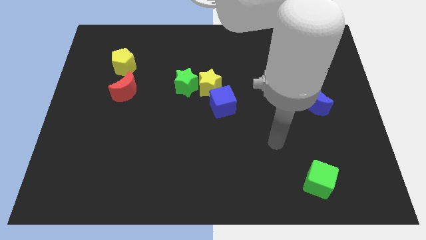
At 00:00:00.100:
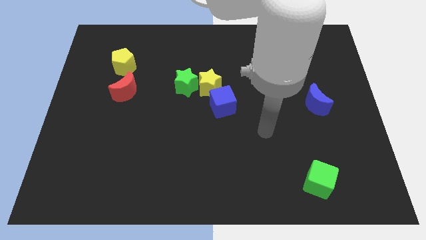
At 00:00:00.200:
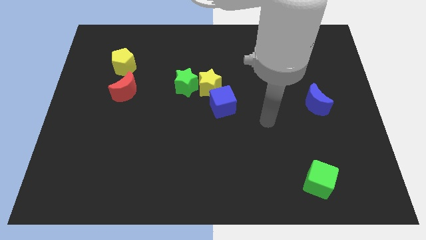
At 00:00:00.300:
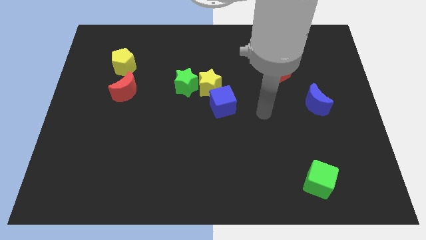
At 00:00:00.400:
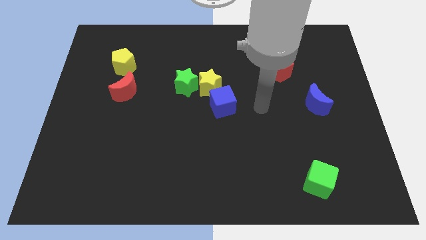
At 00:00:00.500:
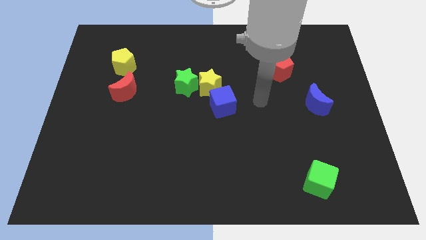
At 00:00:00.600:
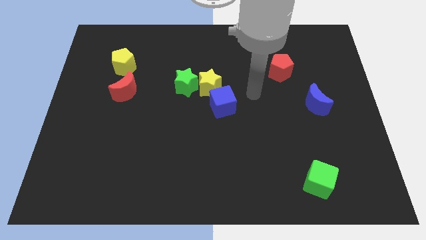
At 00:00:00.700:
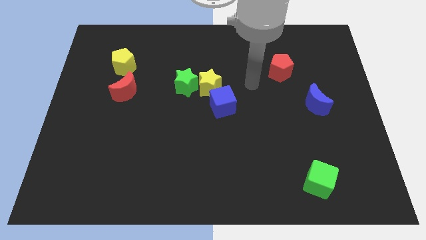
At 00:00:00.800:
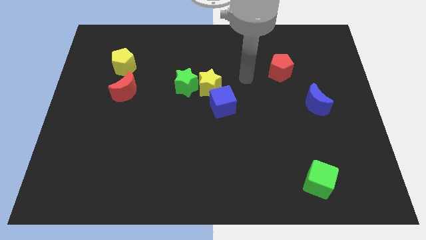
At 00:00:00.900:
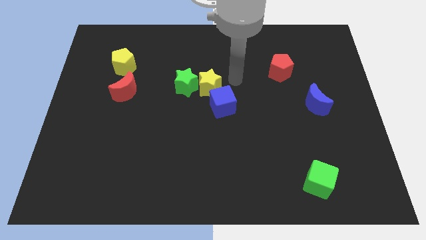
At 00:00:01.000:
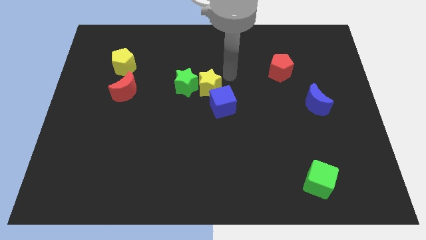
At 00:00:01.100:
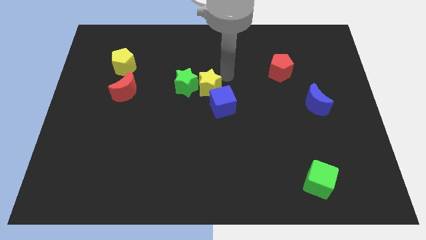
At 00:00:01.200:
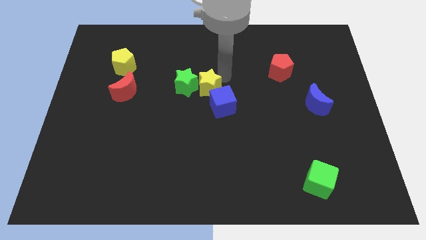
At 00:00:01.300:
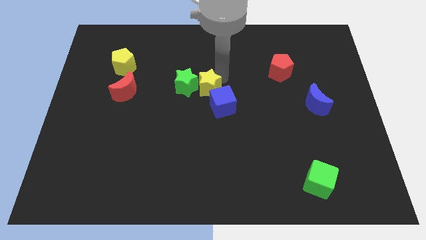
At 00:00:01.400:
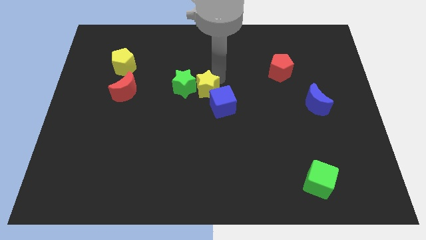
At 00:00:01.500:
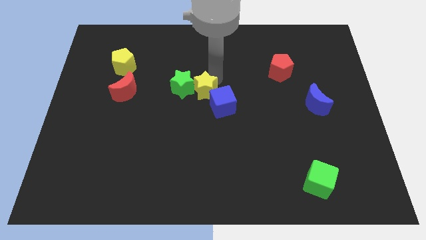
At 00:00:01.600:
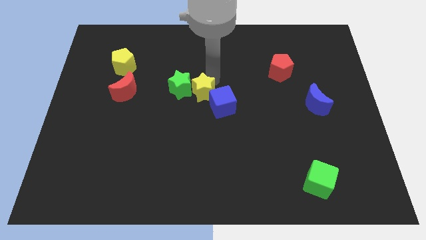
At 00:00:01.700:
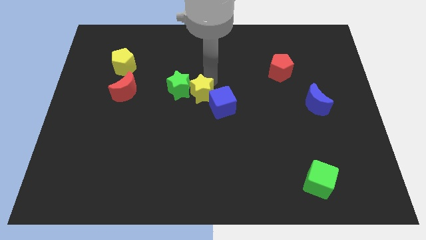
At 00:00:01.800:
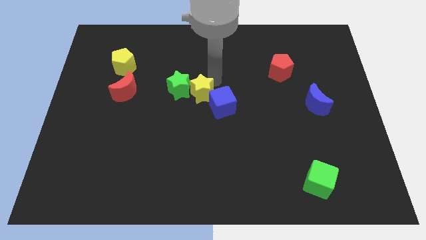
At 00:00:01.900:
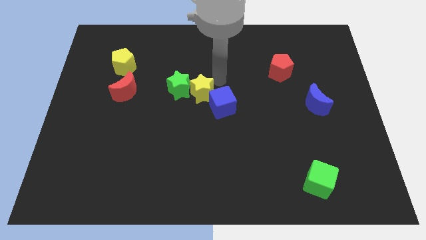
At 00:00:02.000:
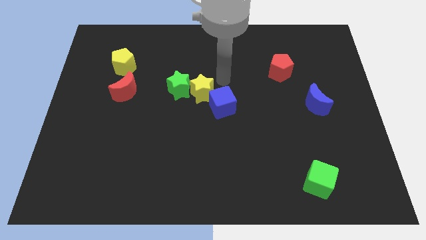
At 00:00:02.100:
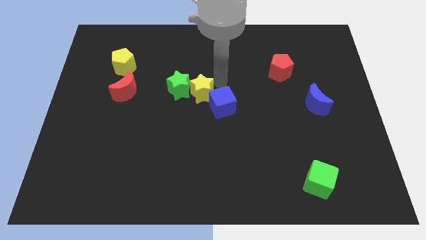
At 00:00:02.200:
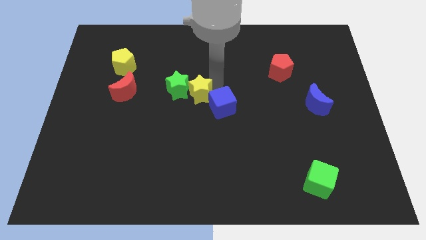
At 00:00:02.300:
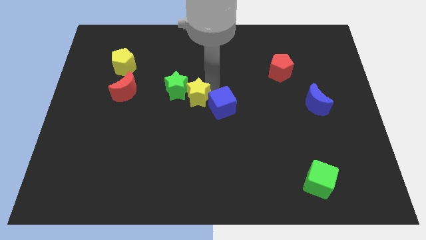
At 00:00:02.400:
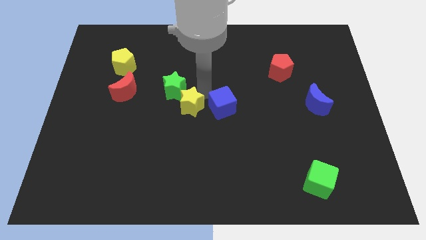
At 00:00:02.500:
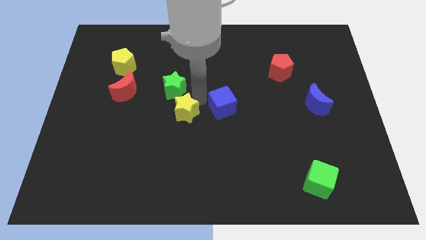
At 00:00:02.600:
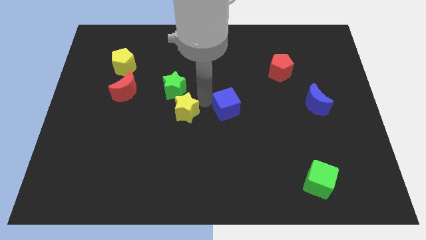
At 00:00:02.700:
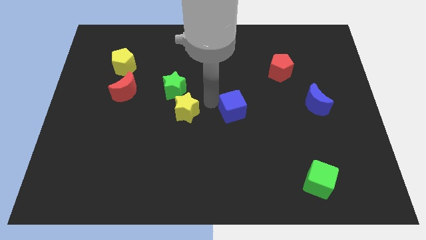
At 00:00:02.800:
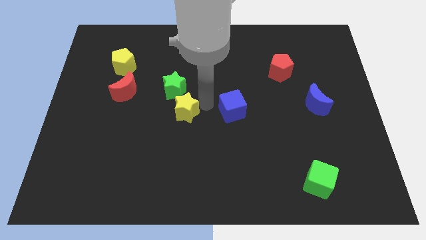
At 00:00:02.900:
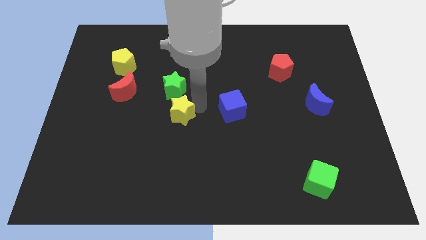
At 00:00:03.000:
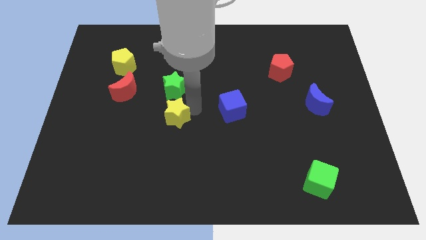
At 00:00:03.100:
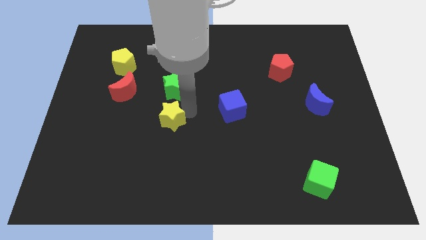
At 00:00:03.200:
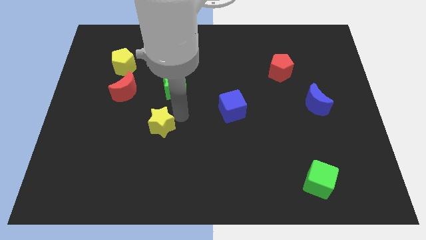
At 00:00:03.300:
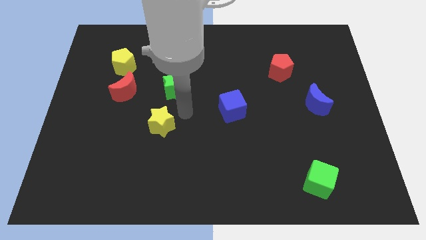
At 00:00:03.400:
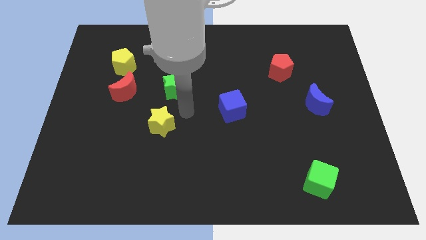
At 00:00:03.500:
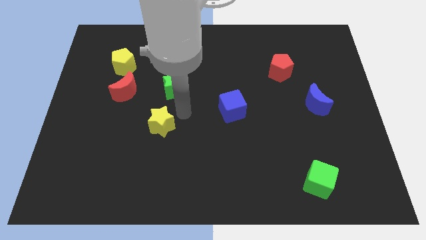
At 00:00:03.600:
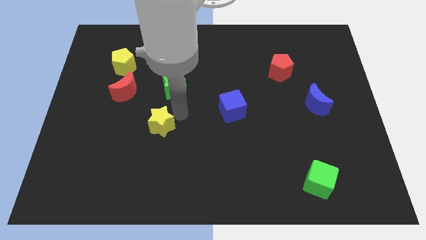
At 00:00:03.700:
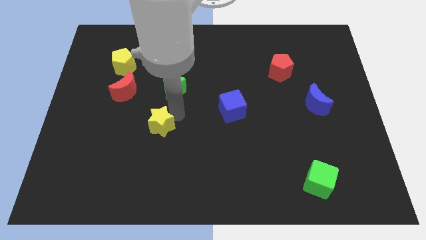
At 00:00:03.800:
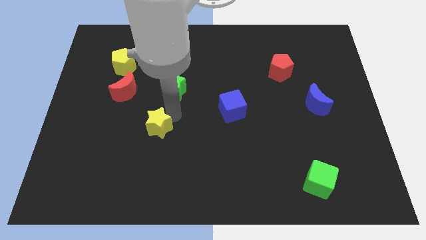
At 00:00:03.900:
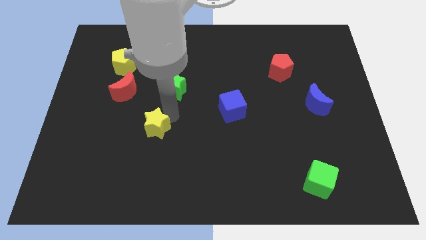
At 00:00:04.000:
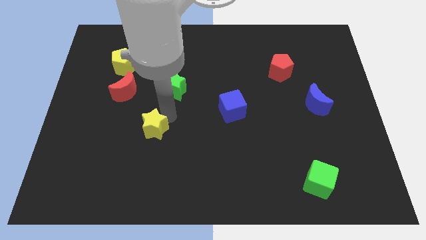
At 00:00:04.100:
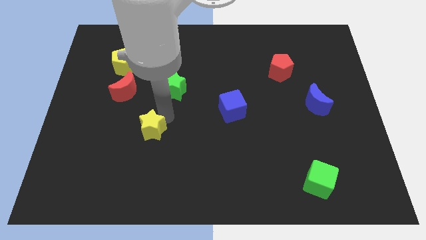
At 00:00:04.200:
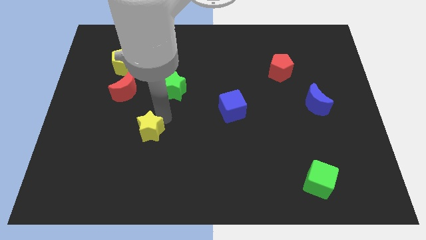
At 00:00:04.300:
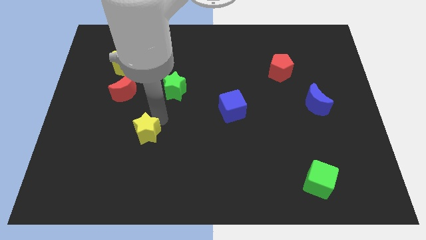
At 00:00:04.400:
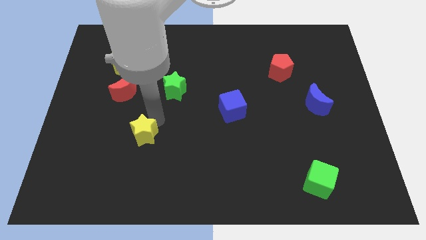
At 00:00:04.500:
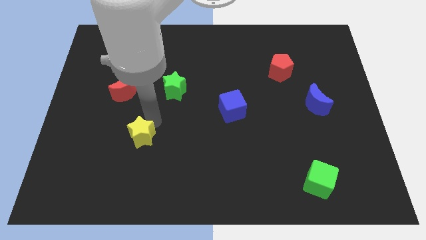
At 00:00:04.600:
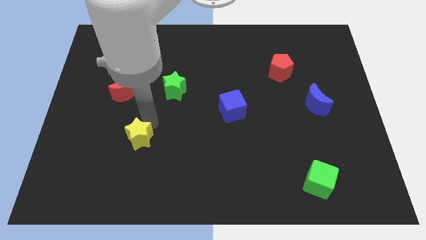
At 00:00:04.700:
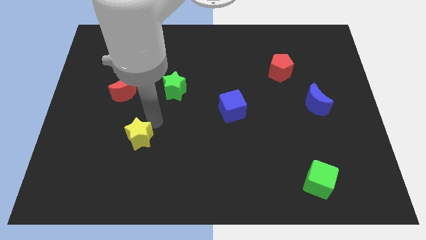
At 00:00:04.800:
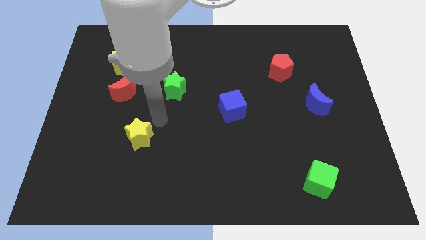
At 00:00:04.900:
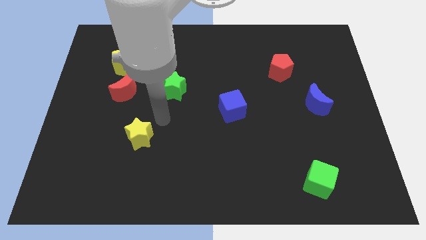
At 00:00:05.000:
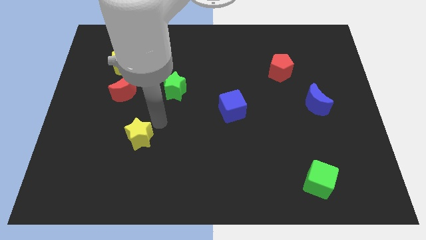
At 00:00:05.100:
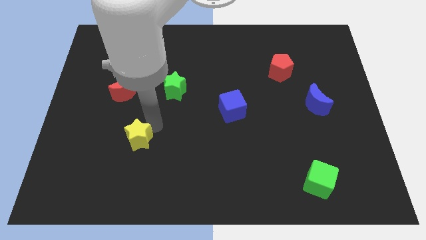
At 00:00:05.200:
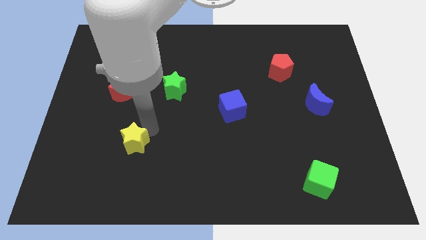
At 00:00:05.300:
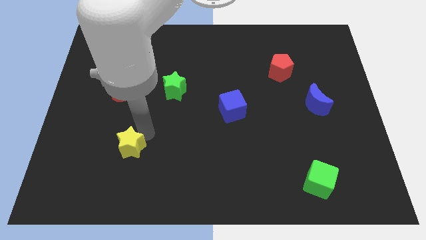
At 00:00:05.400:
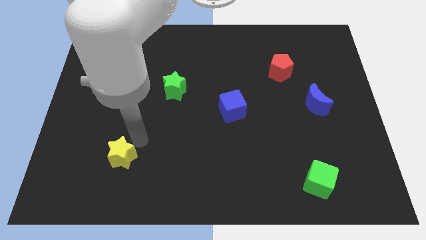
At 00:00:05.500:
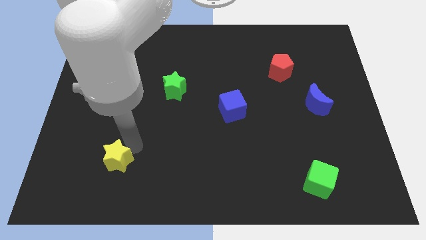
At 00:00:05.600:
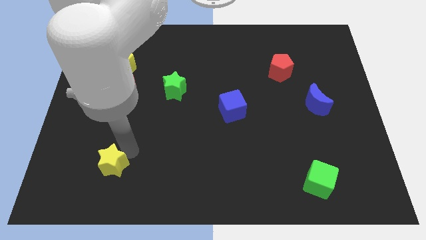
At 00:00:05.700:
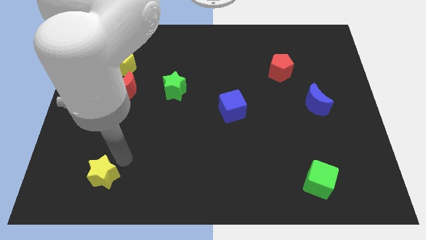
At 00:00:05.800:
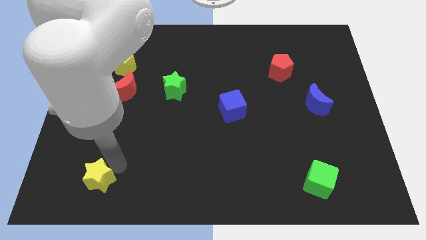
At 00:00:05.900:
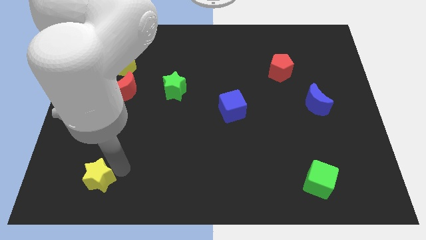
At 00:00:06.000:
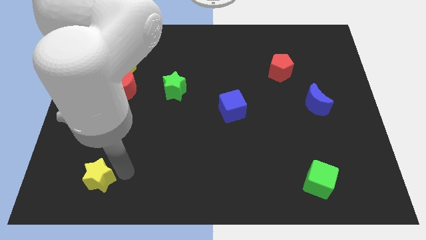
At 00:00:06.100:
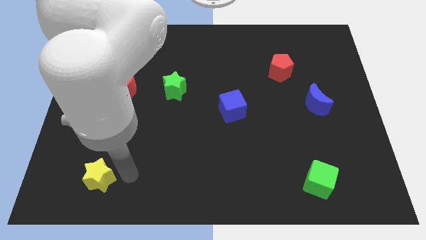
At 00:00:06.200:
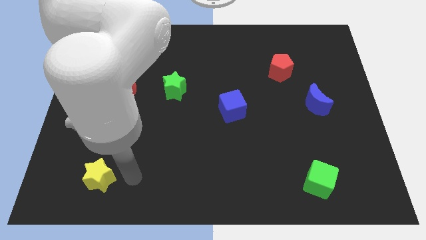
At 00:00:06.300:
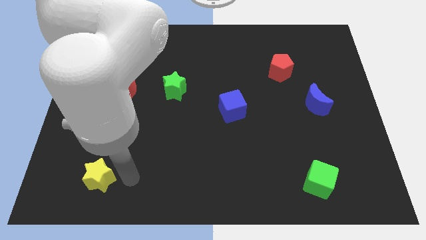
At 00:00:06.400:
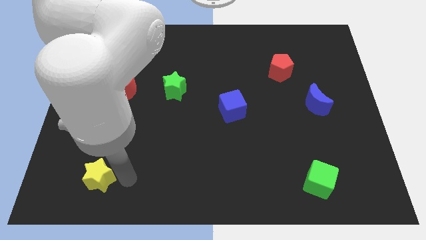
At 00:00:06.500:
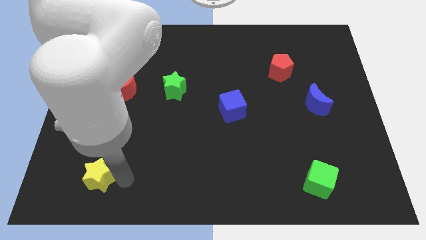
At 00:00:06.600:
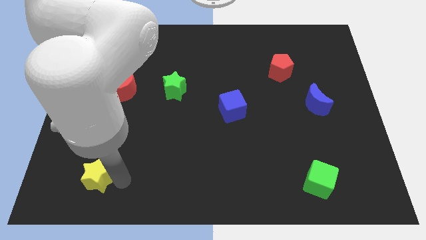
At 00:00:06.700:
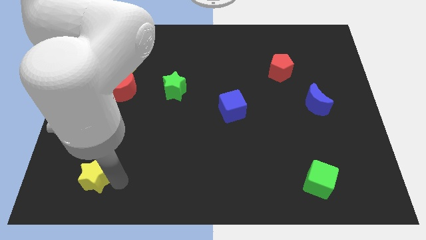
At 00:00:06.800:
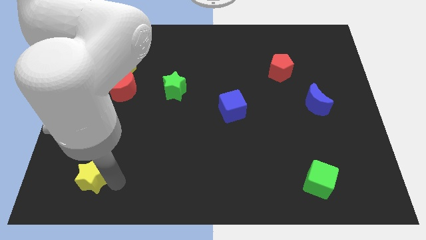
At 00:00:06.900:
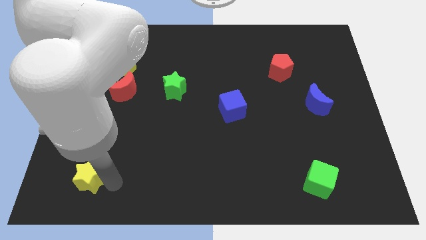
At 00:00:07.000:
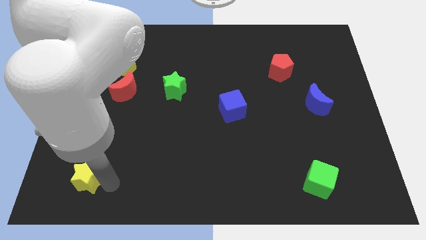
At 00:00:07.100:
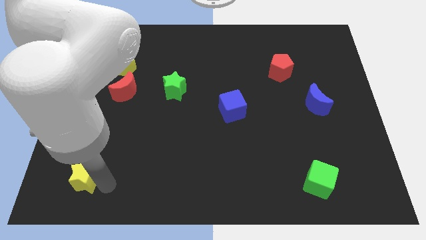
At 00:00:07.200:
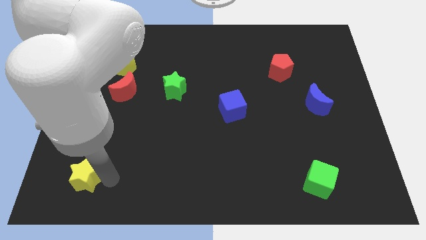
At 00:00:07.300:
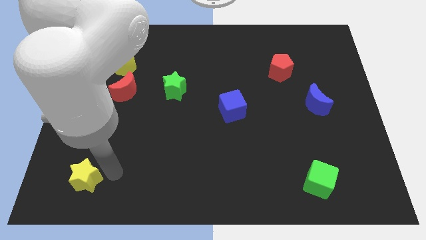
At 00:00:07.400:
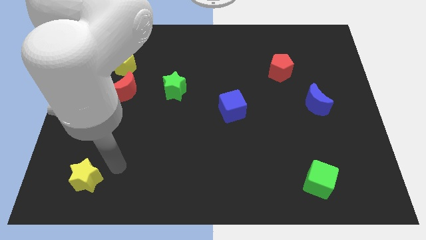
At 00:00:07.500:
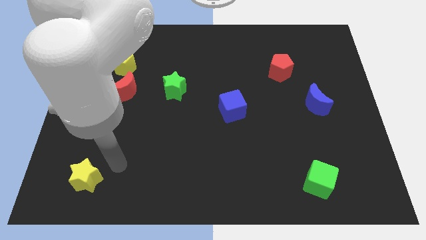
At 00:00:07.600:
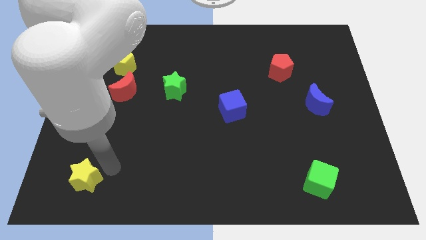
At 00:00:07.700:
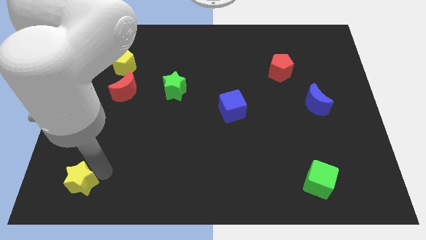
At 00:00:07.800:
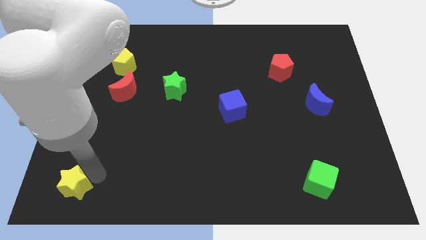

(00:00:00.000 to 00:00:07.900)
slide the yellow star to the bottom left of the board
